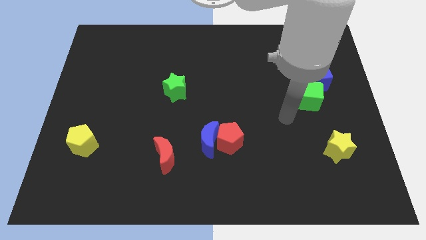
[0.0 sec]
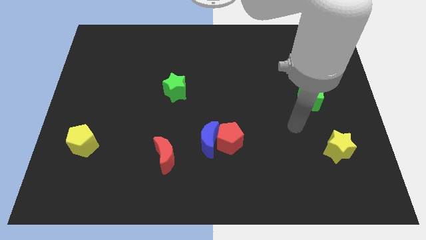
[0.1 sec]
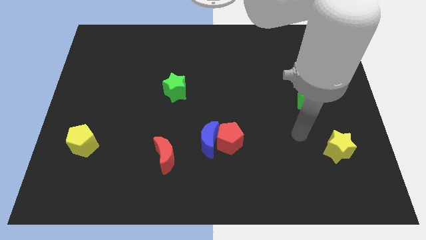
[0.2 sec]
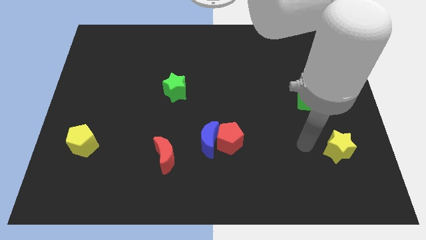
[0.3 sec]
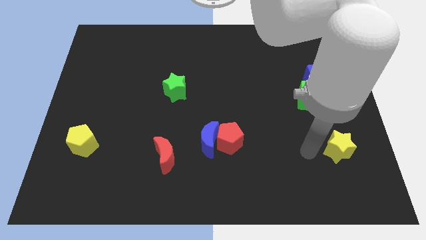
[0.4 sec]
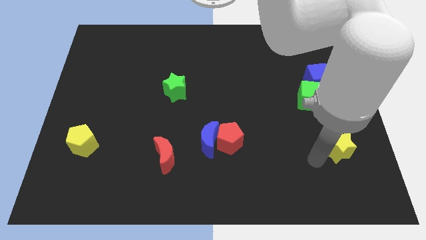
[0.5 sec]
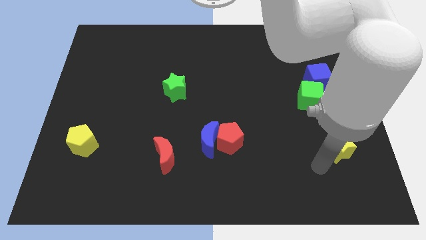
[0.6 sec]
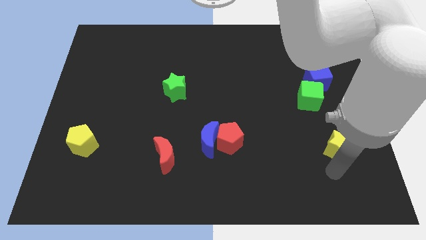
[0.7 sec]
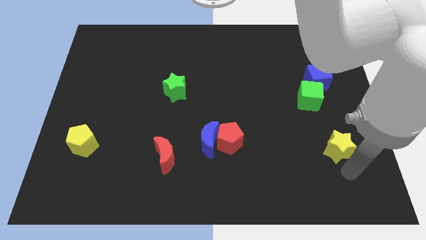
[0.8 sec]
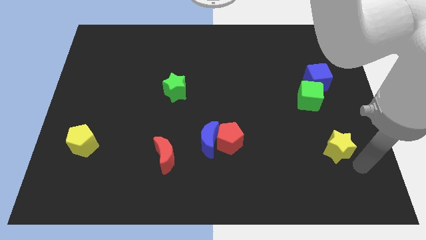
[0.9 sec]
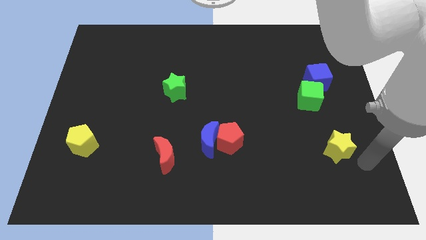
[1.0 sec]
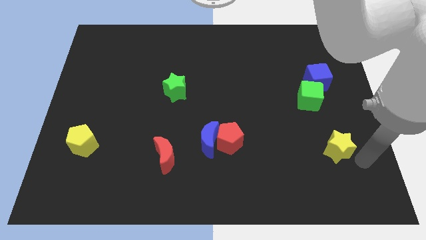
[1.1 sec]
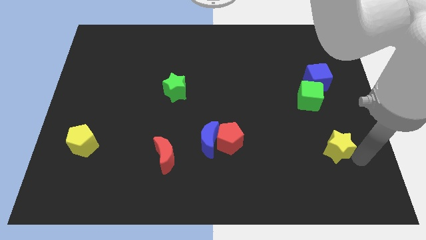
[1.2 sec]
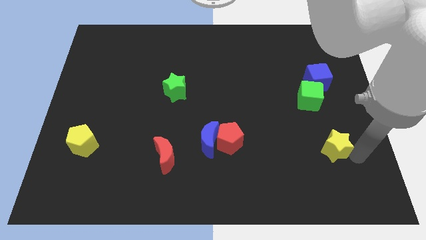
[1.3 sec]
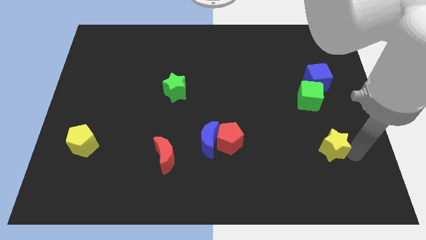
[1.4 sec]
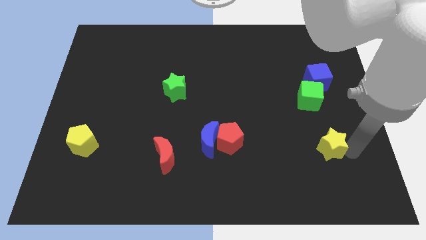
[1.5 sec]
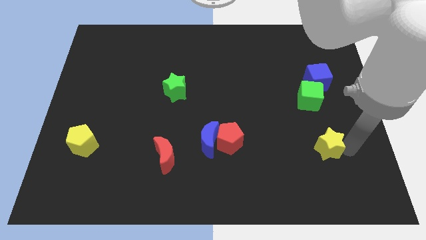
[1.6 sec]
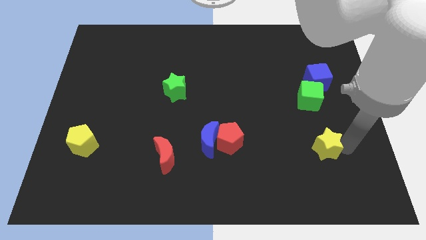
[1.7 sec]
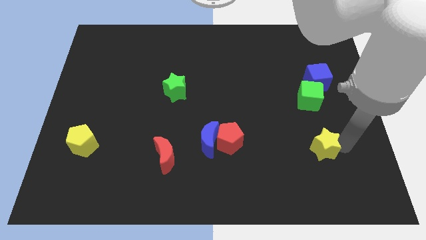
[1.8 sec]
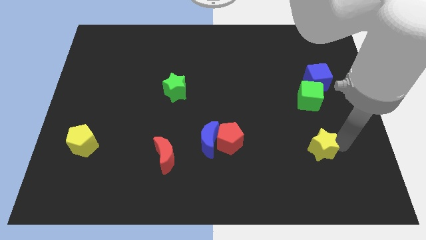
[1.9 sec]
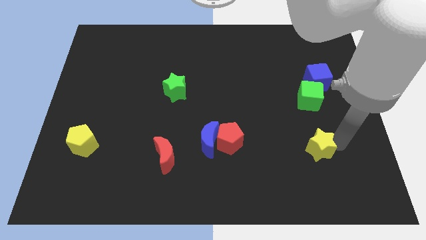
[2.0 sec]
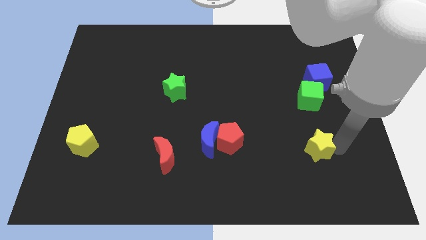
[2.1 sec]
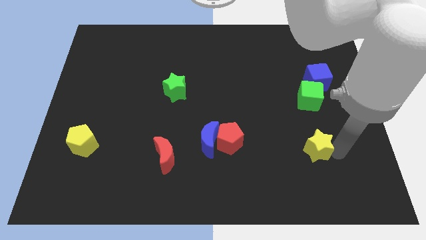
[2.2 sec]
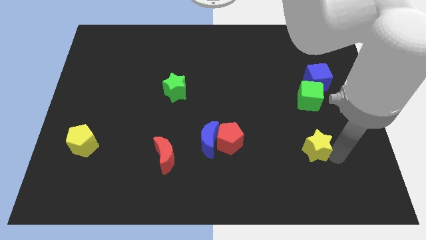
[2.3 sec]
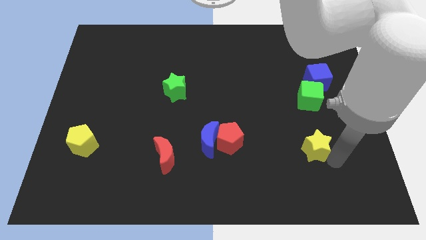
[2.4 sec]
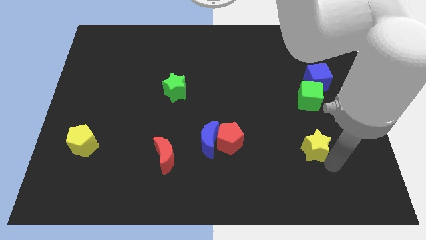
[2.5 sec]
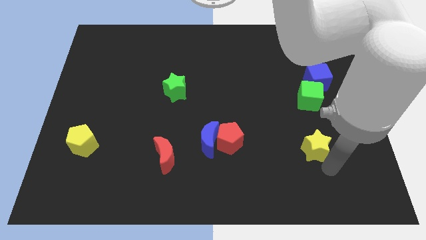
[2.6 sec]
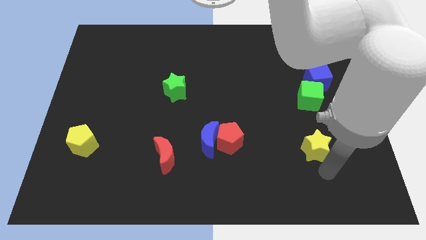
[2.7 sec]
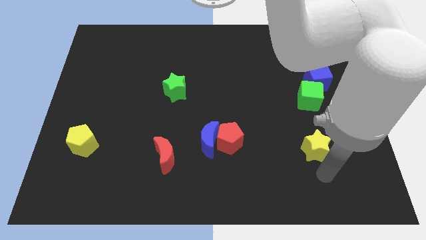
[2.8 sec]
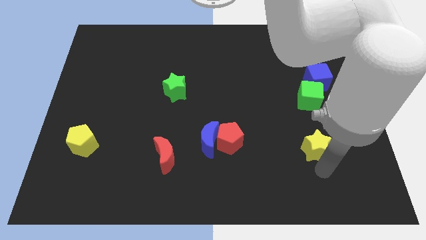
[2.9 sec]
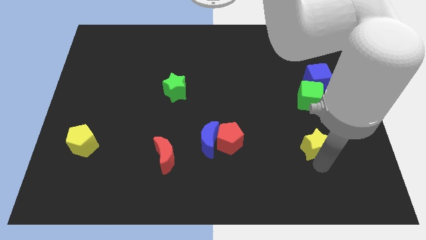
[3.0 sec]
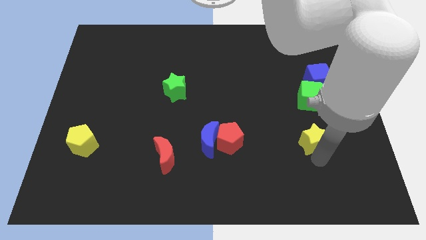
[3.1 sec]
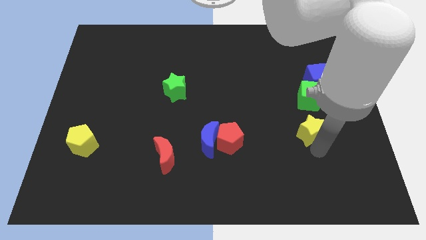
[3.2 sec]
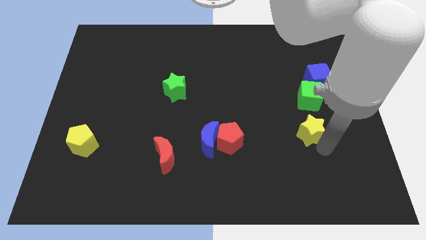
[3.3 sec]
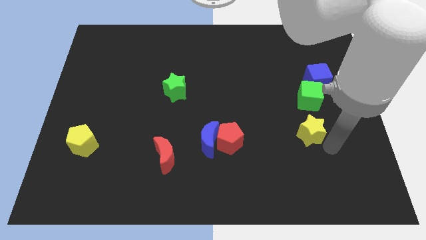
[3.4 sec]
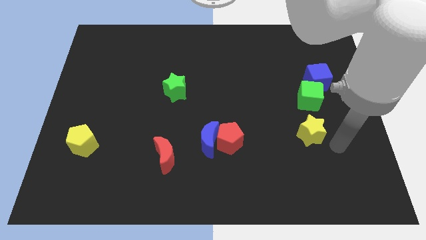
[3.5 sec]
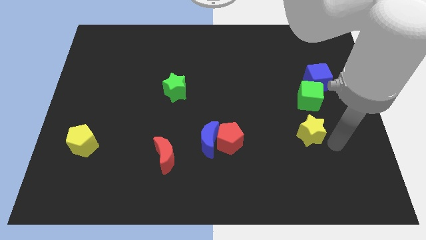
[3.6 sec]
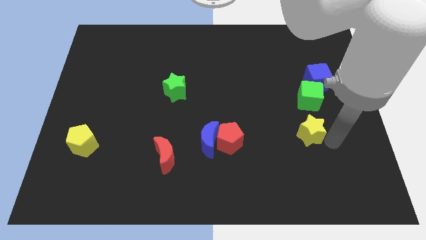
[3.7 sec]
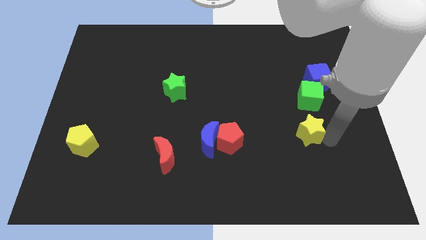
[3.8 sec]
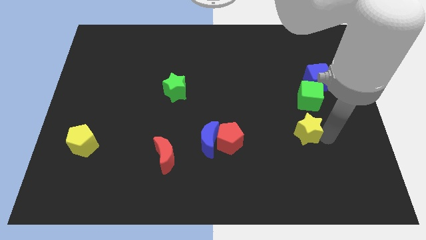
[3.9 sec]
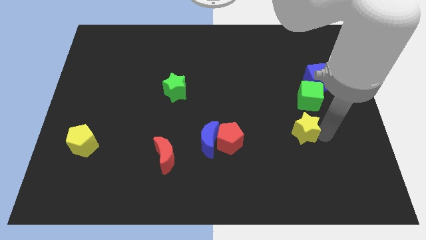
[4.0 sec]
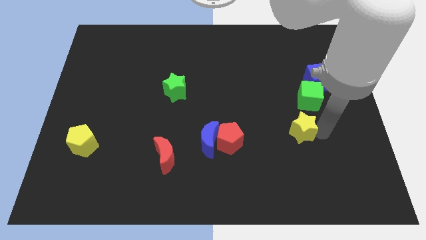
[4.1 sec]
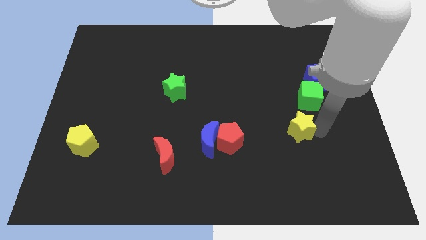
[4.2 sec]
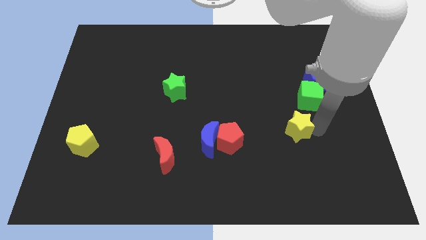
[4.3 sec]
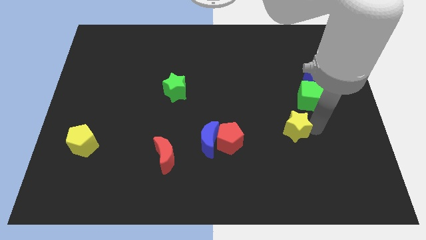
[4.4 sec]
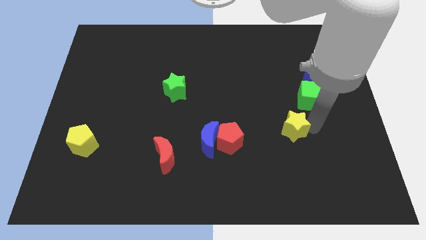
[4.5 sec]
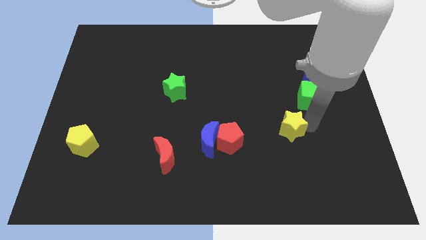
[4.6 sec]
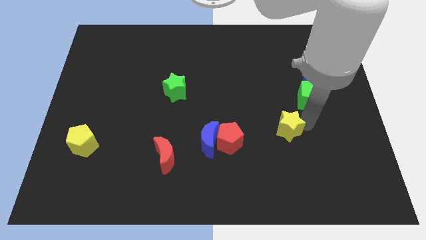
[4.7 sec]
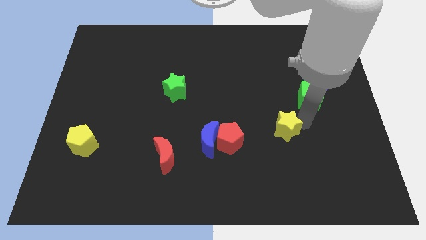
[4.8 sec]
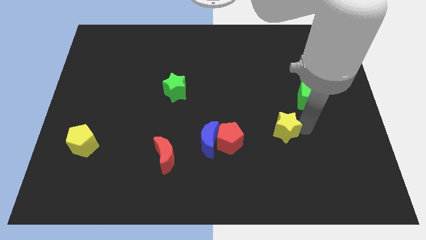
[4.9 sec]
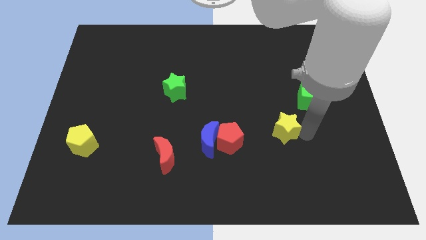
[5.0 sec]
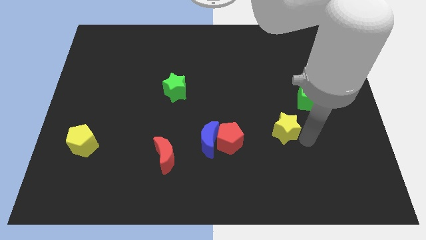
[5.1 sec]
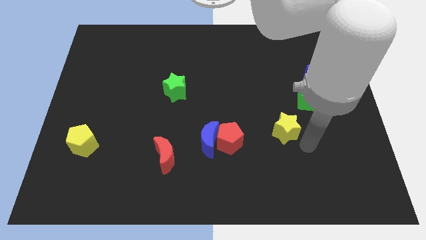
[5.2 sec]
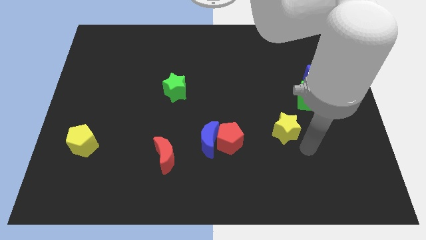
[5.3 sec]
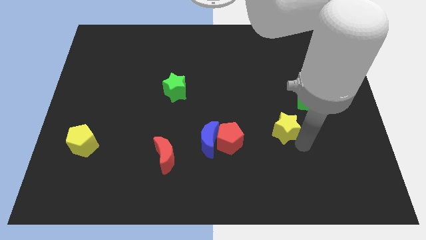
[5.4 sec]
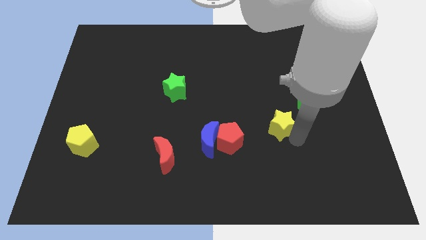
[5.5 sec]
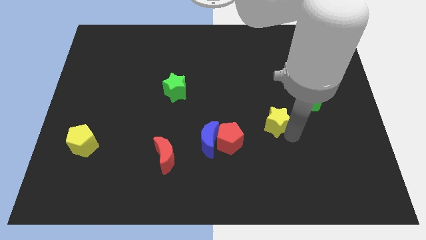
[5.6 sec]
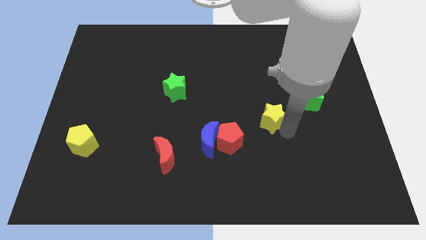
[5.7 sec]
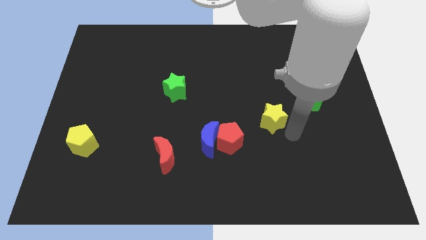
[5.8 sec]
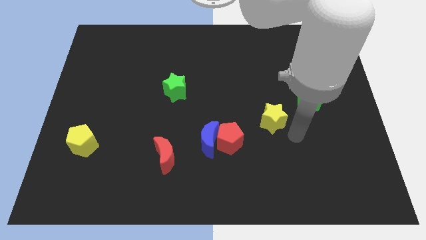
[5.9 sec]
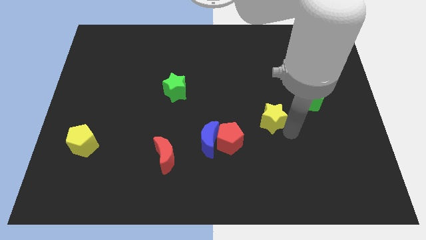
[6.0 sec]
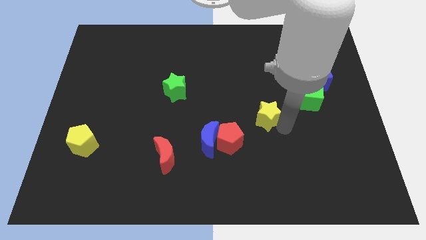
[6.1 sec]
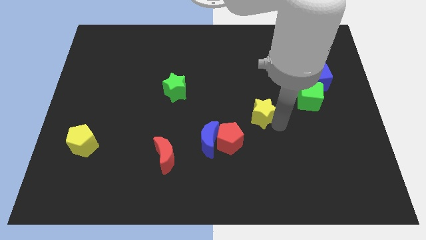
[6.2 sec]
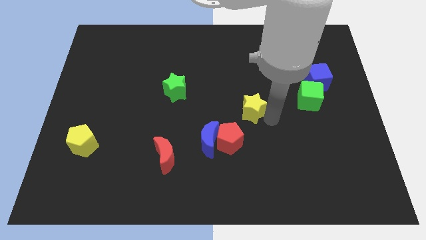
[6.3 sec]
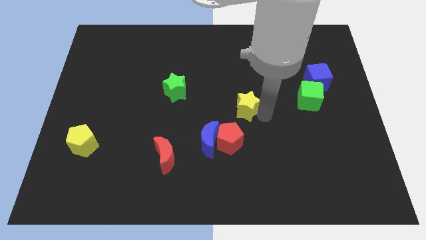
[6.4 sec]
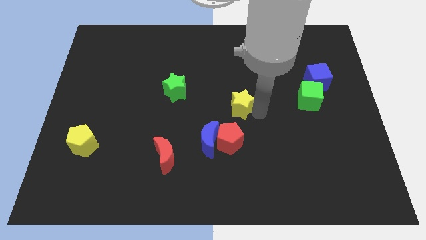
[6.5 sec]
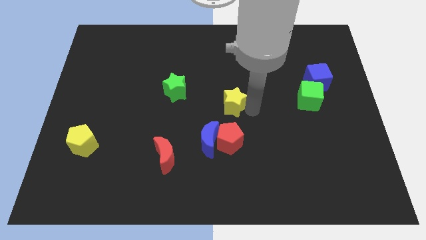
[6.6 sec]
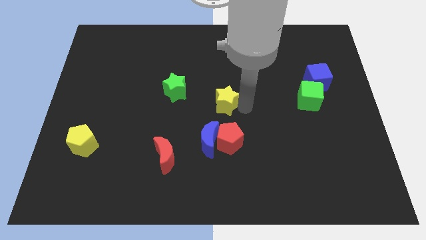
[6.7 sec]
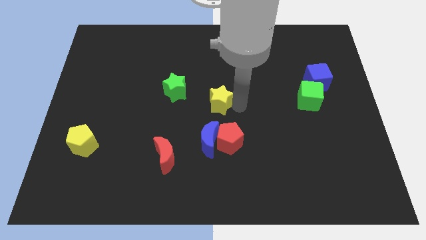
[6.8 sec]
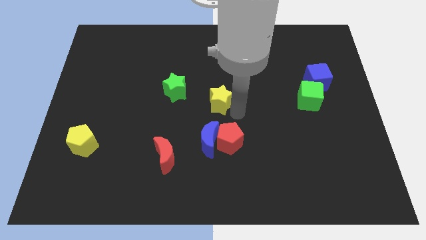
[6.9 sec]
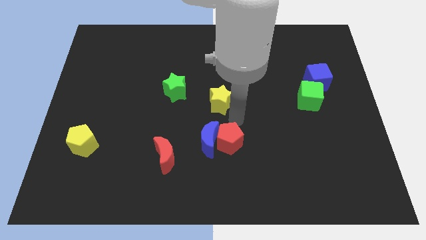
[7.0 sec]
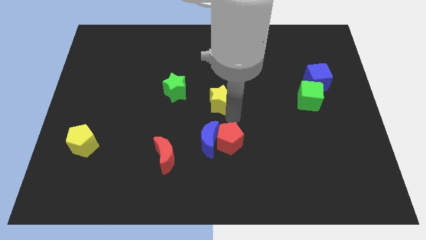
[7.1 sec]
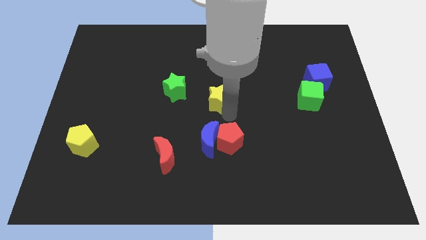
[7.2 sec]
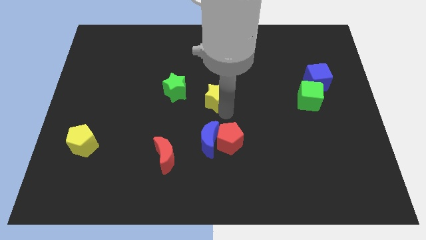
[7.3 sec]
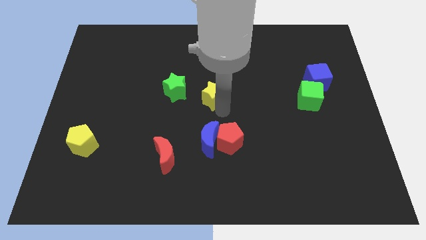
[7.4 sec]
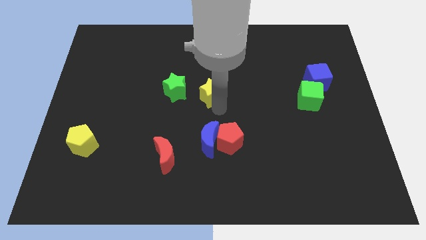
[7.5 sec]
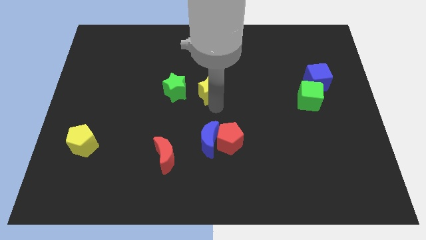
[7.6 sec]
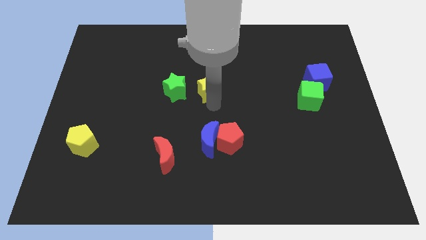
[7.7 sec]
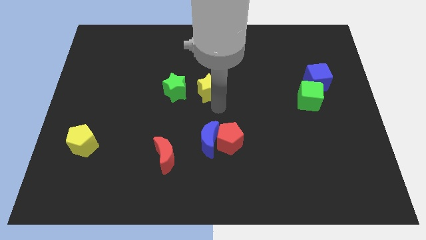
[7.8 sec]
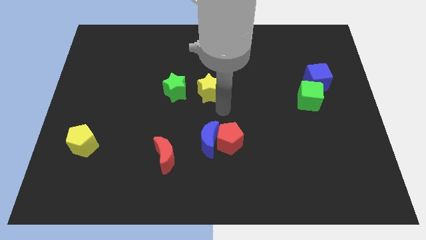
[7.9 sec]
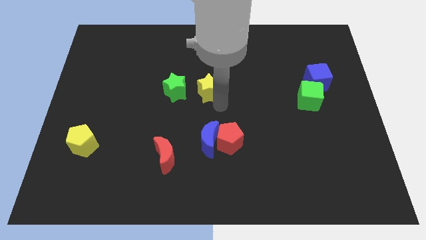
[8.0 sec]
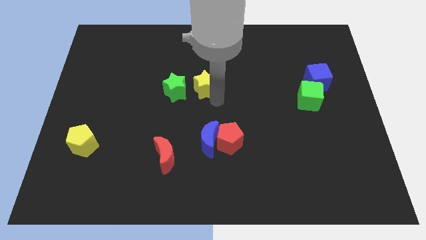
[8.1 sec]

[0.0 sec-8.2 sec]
slide the yellow star to the top right of the green star
